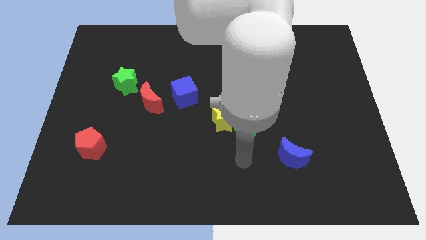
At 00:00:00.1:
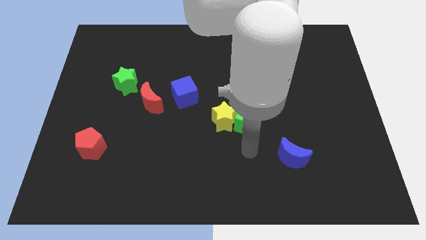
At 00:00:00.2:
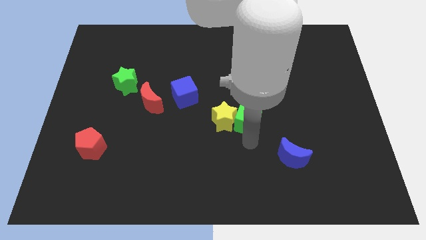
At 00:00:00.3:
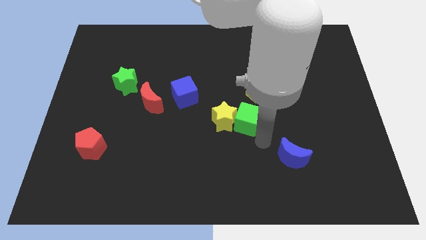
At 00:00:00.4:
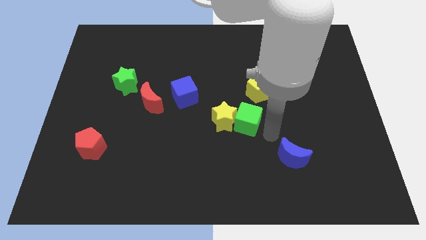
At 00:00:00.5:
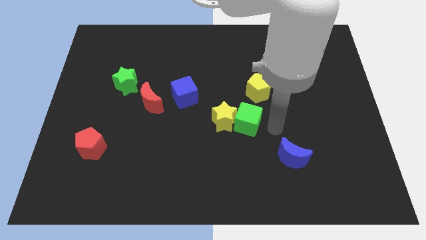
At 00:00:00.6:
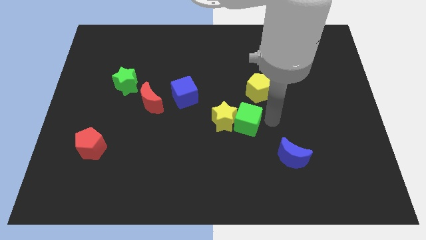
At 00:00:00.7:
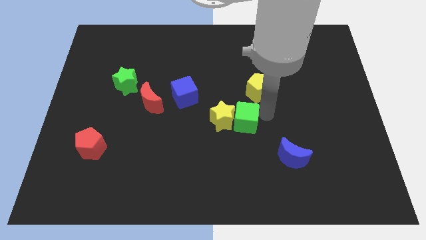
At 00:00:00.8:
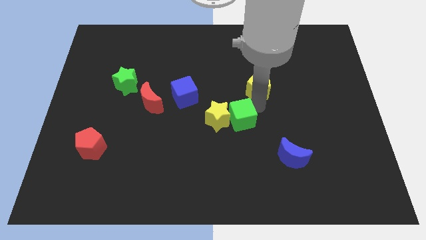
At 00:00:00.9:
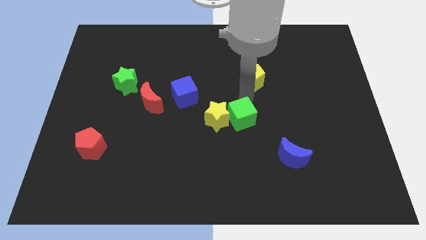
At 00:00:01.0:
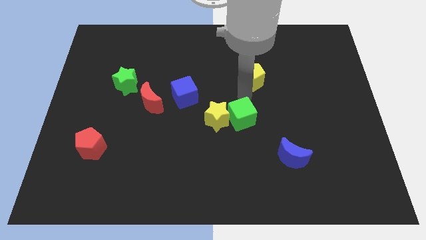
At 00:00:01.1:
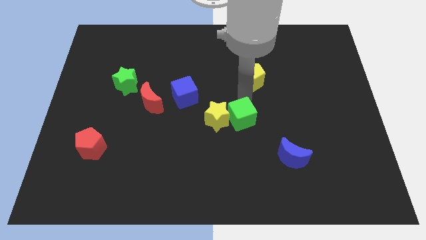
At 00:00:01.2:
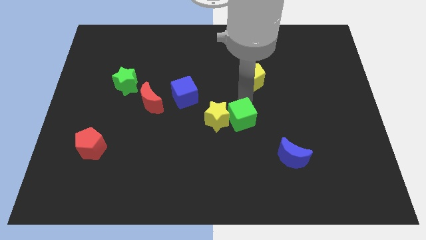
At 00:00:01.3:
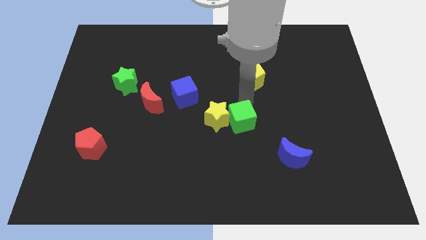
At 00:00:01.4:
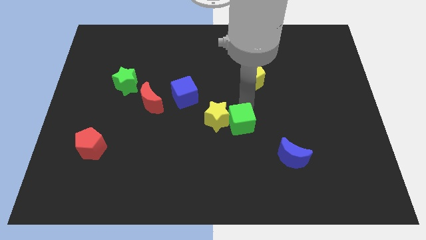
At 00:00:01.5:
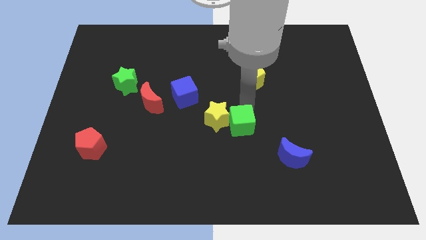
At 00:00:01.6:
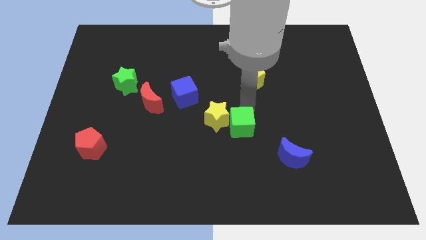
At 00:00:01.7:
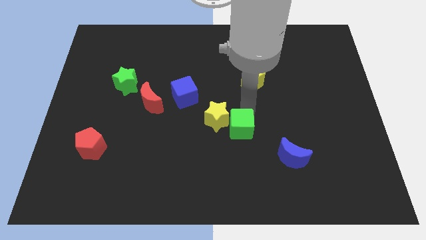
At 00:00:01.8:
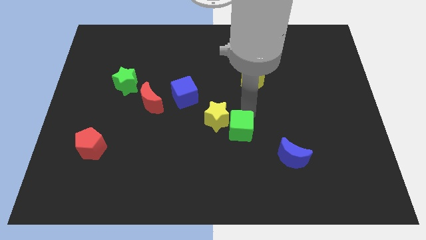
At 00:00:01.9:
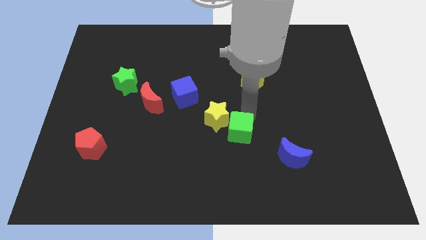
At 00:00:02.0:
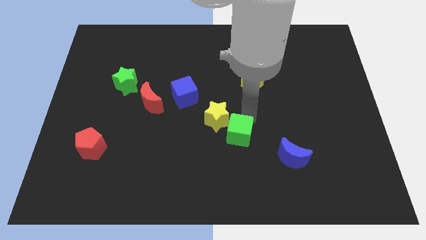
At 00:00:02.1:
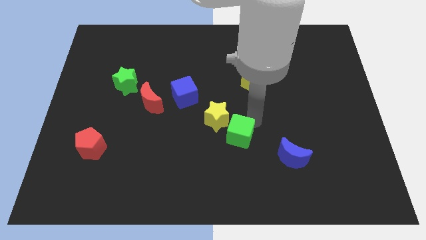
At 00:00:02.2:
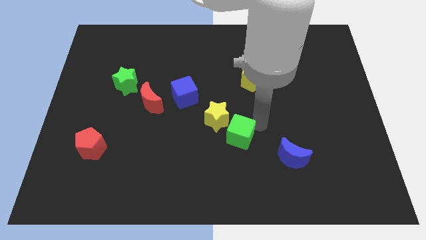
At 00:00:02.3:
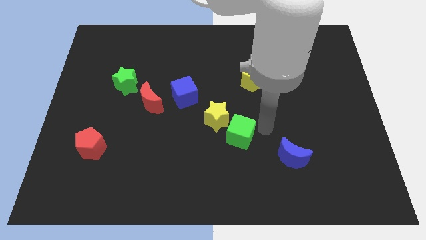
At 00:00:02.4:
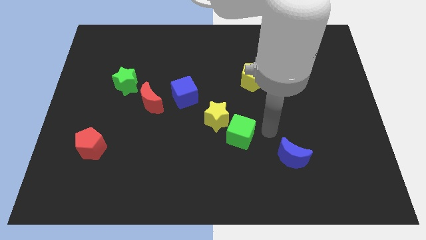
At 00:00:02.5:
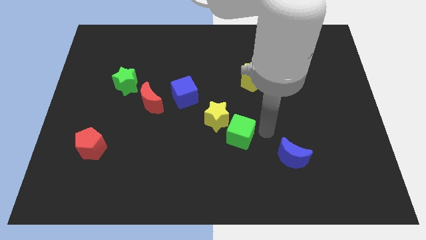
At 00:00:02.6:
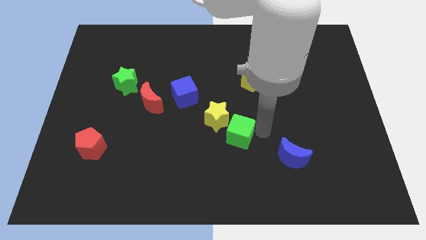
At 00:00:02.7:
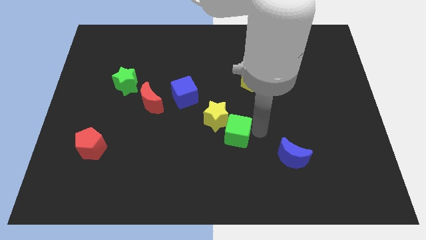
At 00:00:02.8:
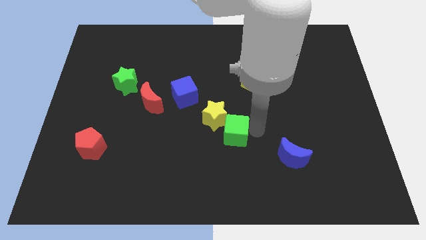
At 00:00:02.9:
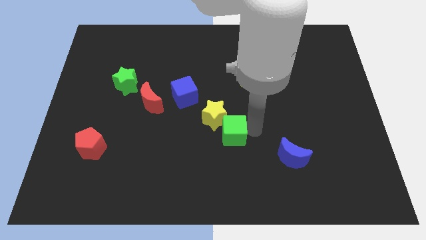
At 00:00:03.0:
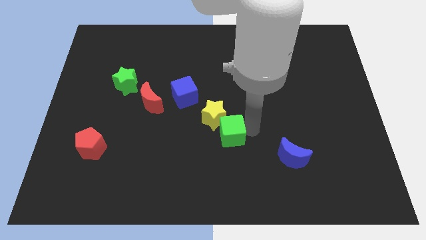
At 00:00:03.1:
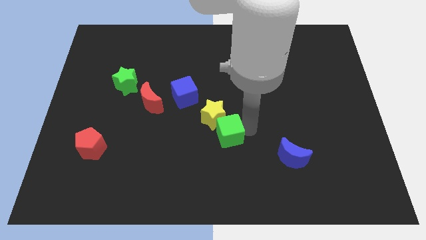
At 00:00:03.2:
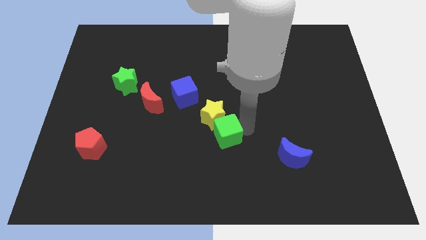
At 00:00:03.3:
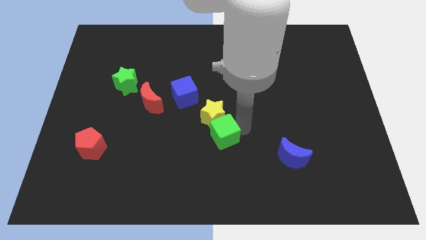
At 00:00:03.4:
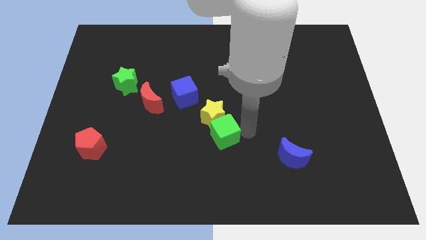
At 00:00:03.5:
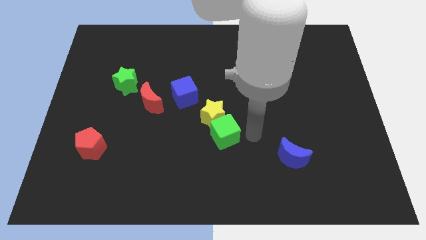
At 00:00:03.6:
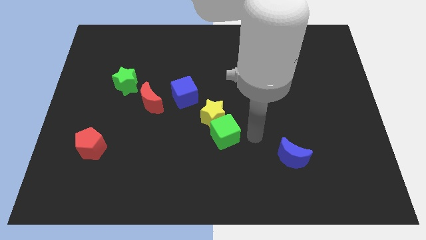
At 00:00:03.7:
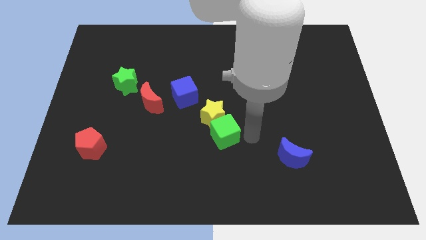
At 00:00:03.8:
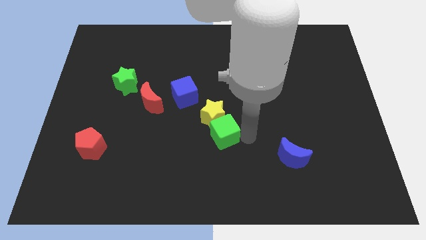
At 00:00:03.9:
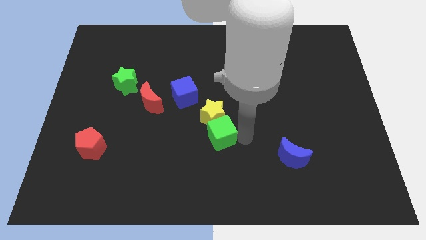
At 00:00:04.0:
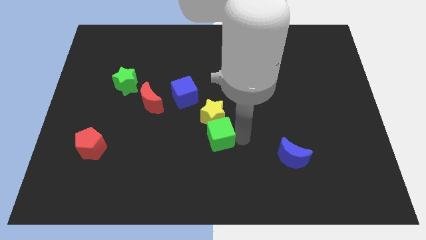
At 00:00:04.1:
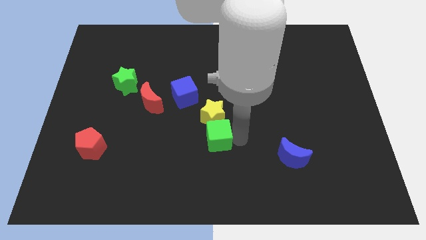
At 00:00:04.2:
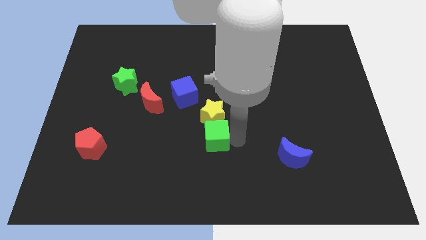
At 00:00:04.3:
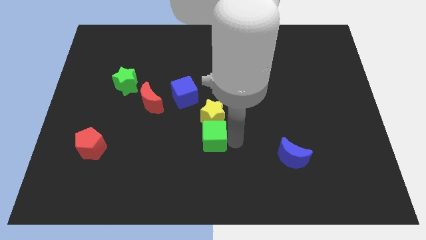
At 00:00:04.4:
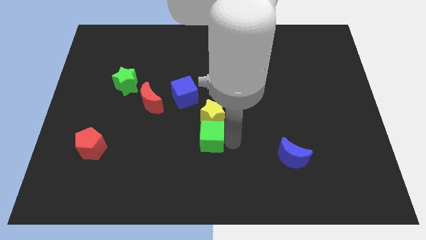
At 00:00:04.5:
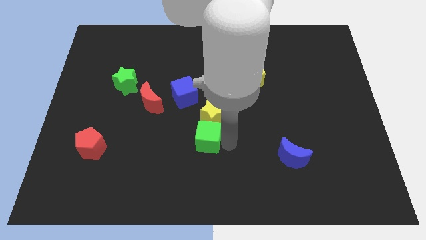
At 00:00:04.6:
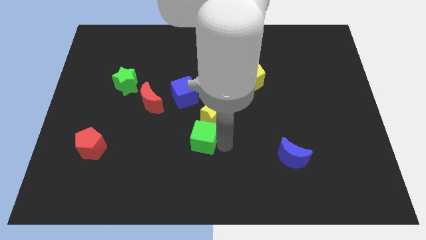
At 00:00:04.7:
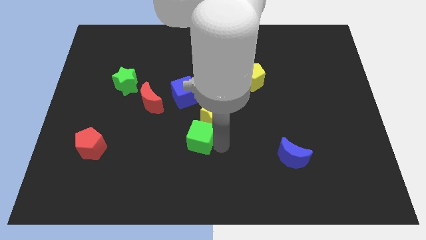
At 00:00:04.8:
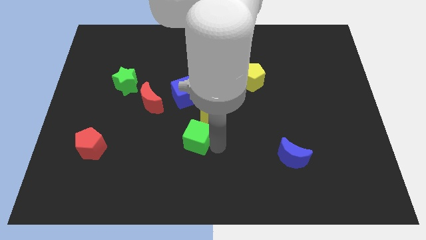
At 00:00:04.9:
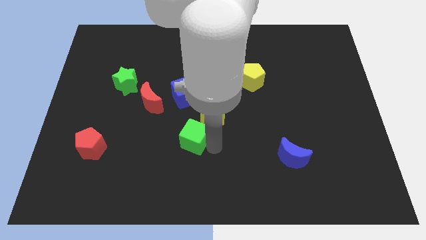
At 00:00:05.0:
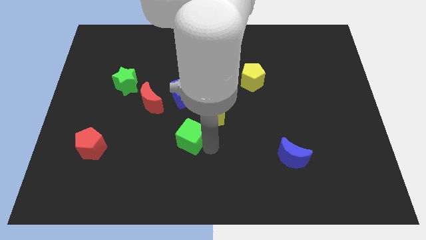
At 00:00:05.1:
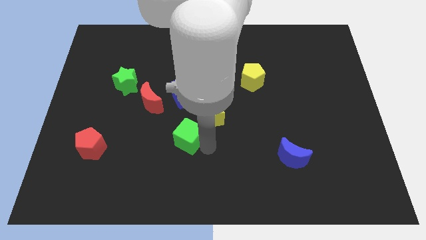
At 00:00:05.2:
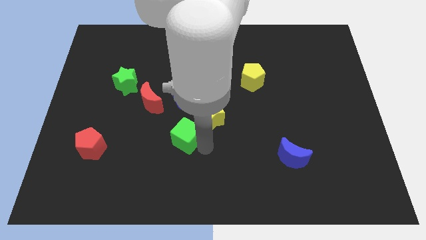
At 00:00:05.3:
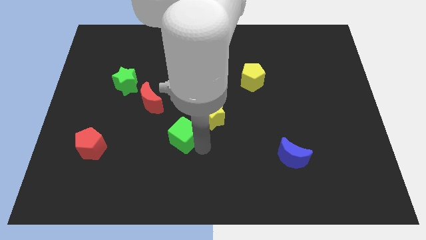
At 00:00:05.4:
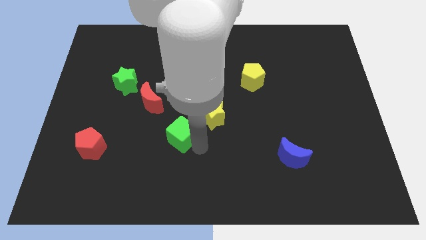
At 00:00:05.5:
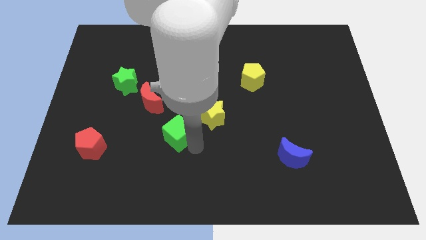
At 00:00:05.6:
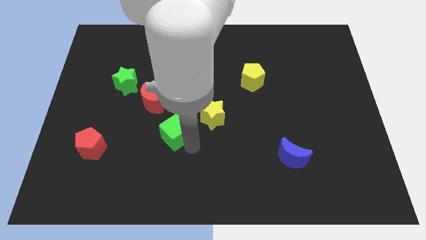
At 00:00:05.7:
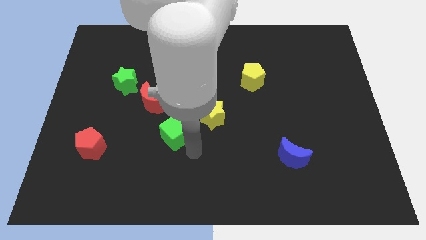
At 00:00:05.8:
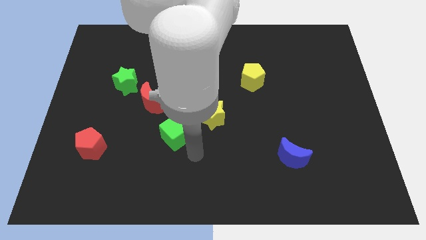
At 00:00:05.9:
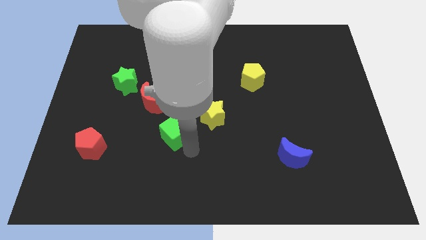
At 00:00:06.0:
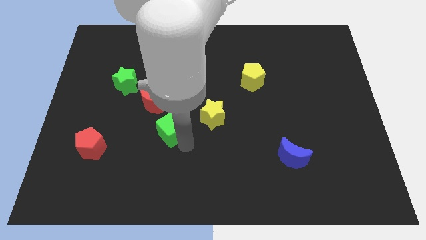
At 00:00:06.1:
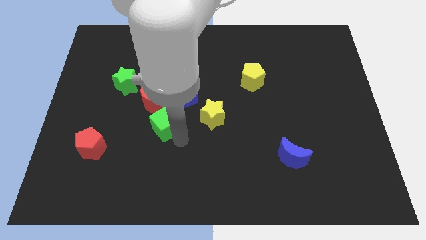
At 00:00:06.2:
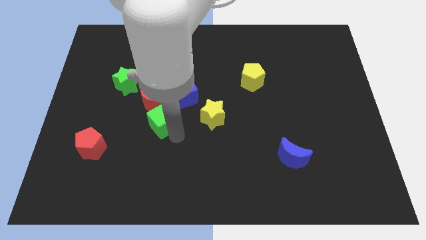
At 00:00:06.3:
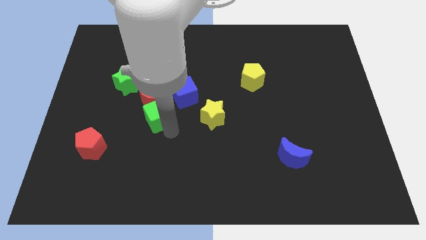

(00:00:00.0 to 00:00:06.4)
slide the green cube towards the red moon
